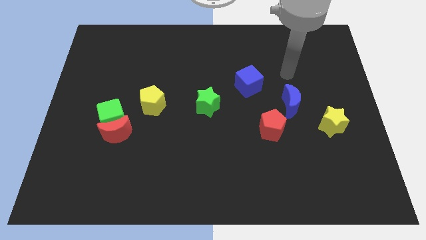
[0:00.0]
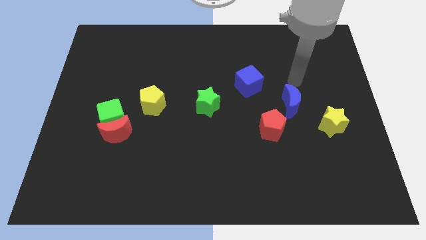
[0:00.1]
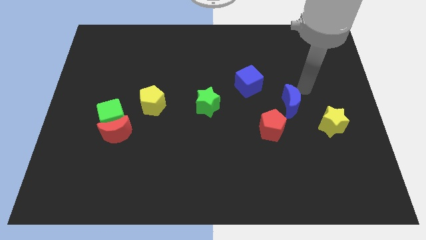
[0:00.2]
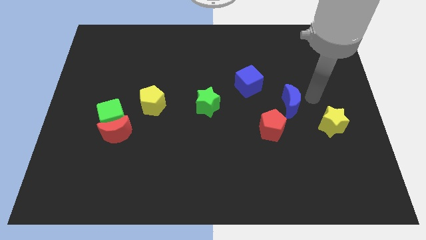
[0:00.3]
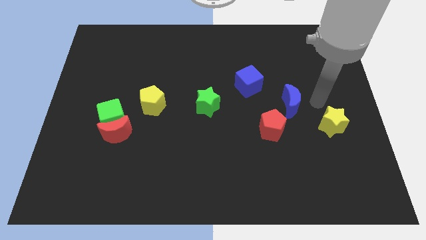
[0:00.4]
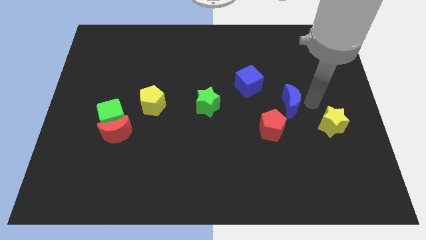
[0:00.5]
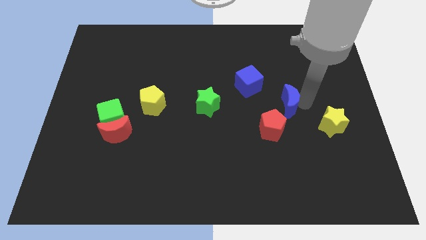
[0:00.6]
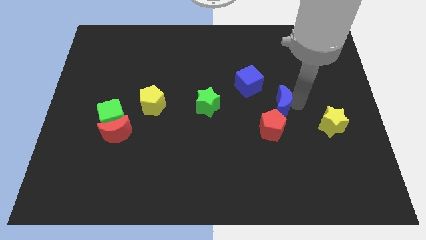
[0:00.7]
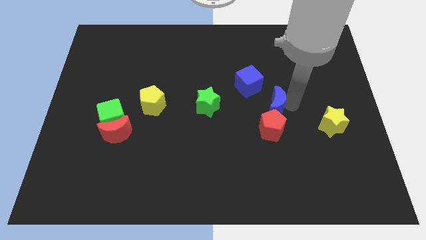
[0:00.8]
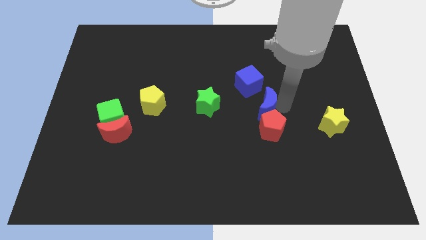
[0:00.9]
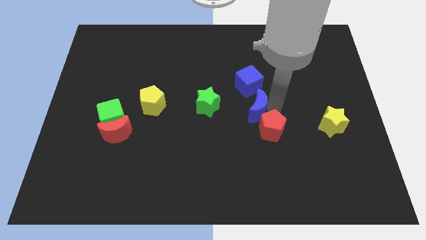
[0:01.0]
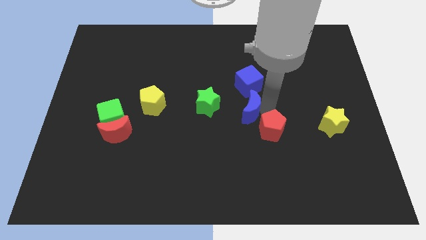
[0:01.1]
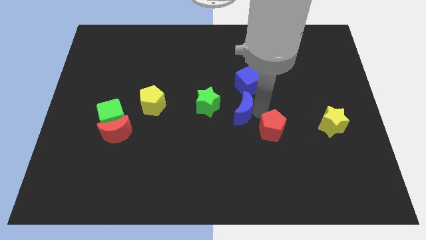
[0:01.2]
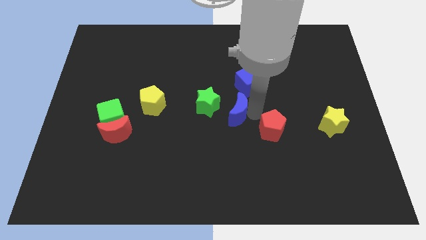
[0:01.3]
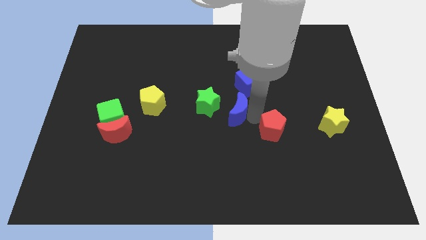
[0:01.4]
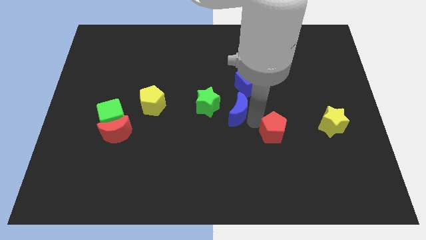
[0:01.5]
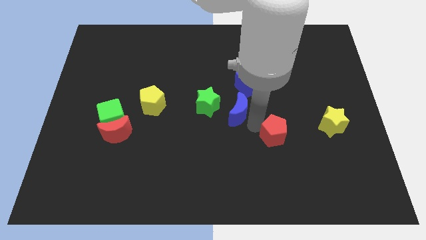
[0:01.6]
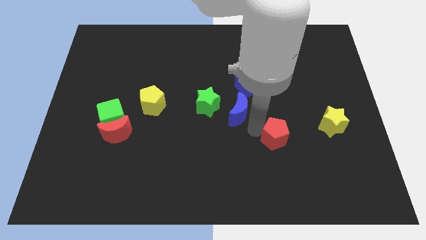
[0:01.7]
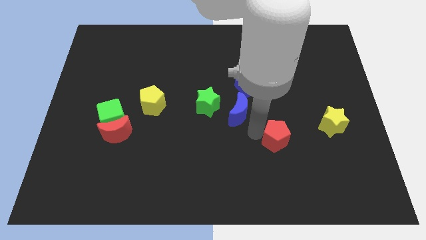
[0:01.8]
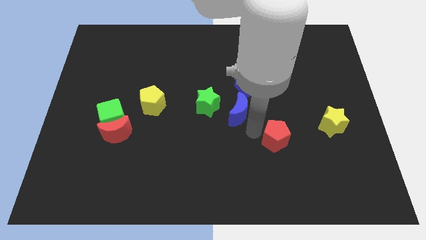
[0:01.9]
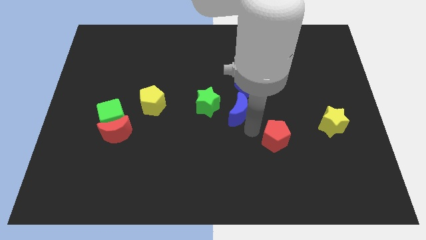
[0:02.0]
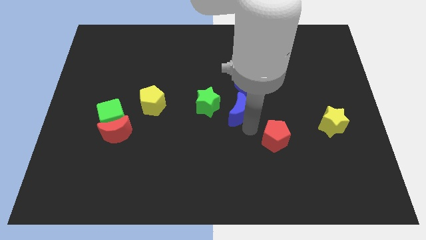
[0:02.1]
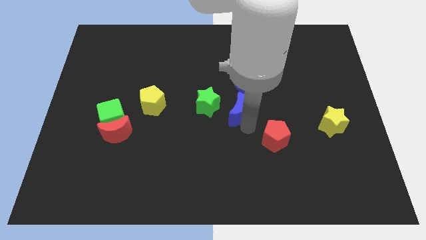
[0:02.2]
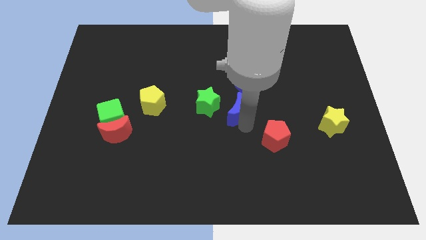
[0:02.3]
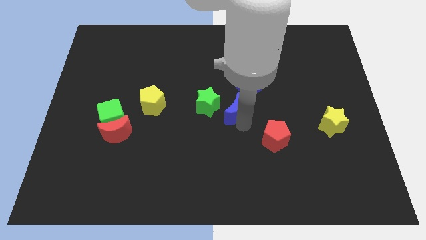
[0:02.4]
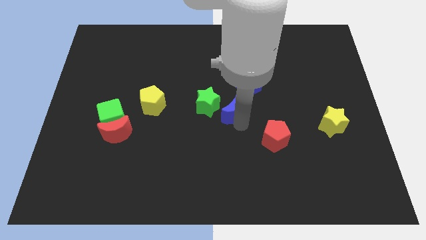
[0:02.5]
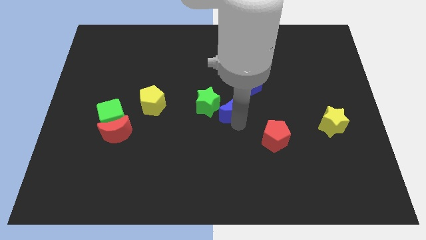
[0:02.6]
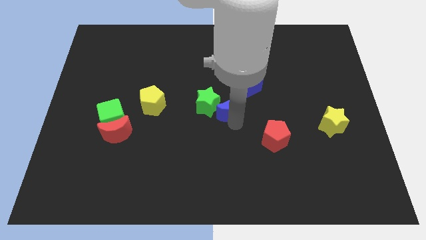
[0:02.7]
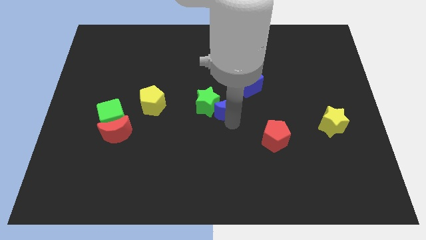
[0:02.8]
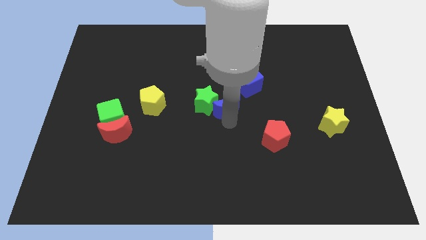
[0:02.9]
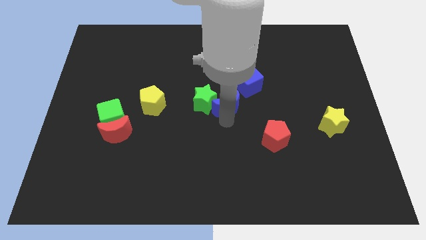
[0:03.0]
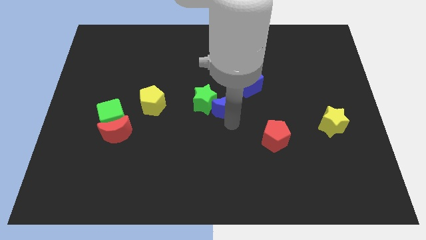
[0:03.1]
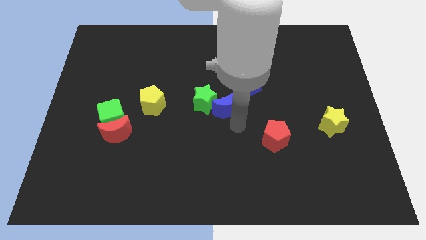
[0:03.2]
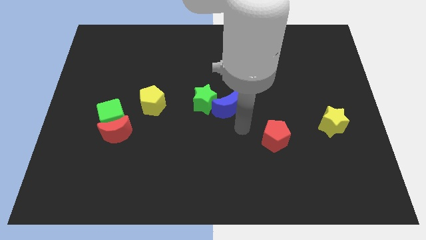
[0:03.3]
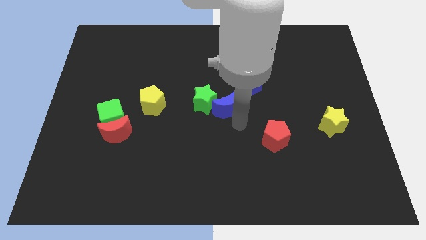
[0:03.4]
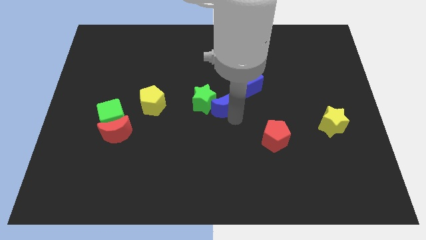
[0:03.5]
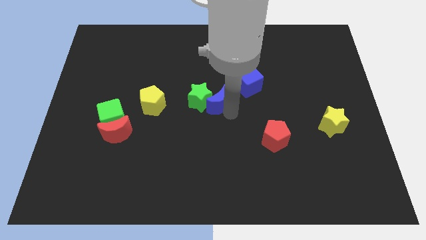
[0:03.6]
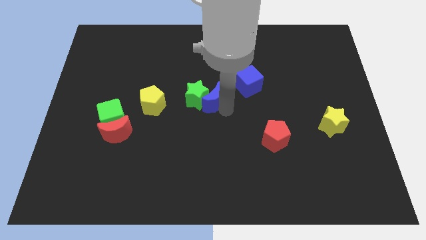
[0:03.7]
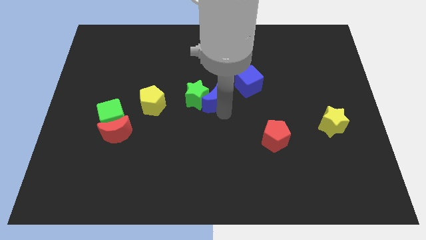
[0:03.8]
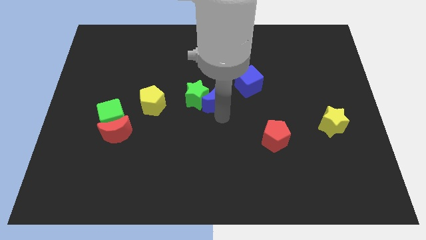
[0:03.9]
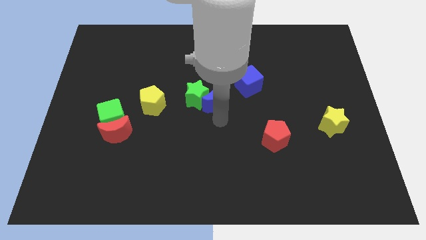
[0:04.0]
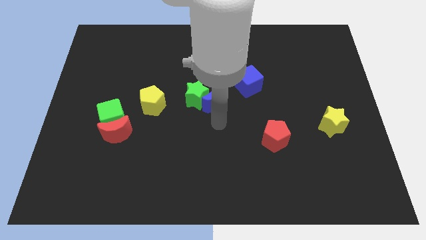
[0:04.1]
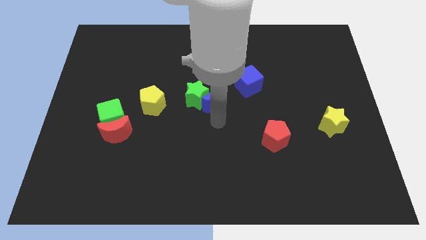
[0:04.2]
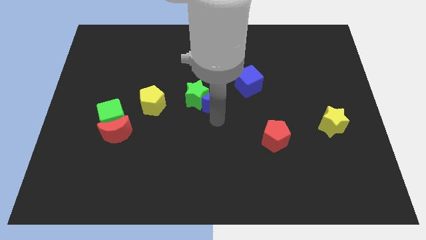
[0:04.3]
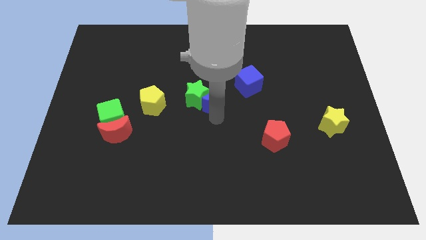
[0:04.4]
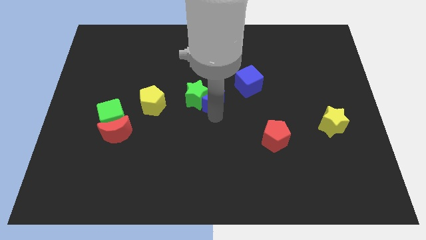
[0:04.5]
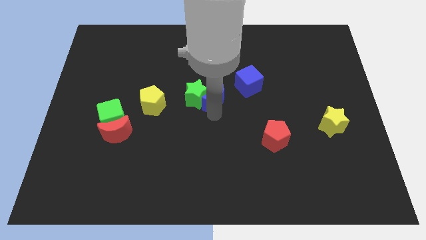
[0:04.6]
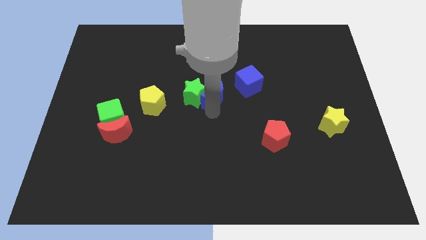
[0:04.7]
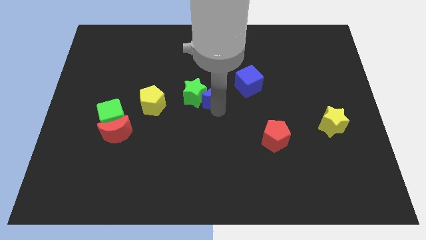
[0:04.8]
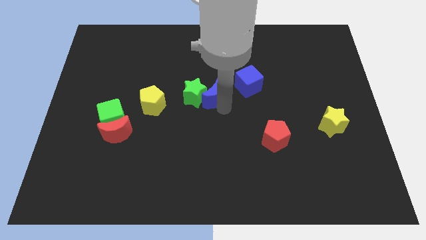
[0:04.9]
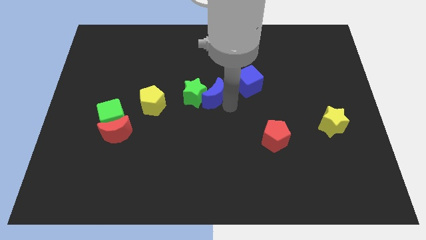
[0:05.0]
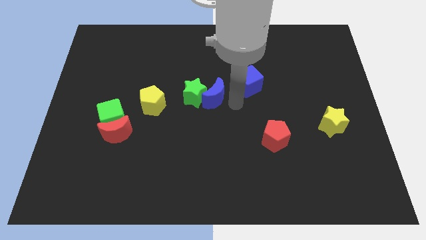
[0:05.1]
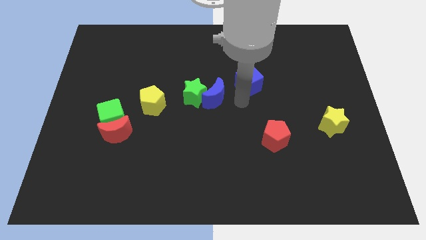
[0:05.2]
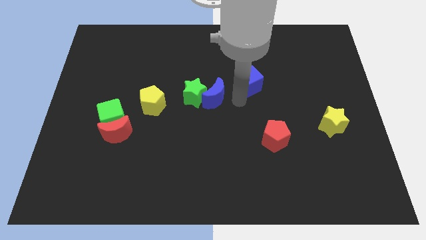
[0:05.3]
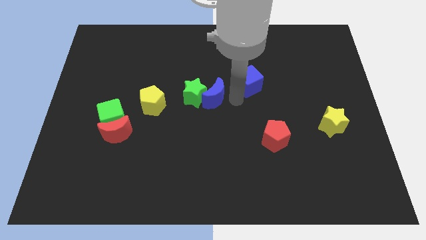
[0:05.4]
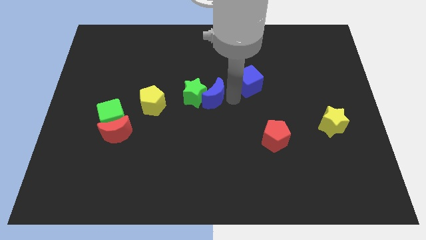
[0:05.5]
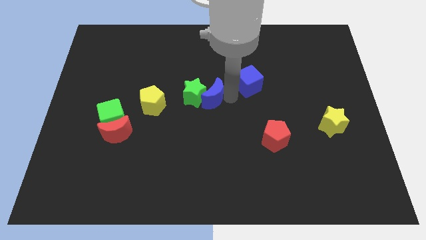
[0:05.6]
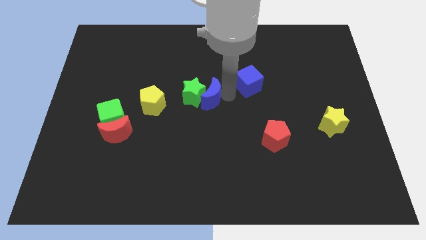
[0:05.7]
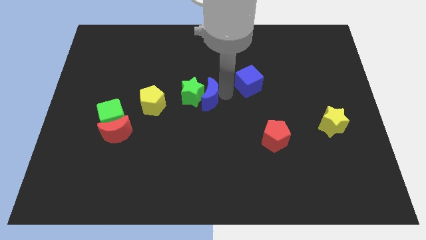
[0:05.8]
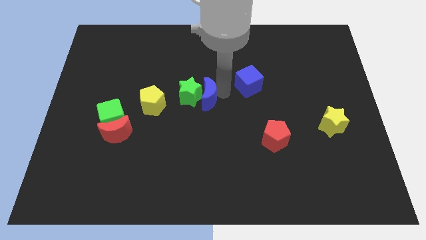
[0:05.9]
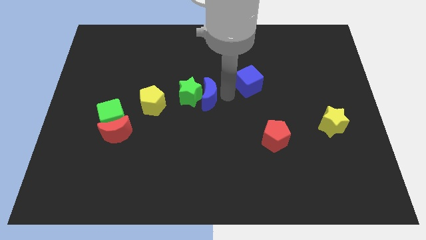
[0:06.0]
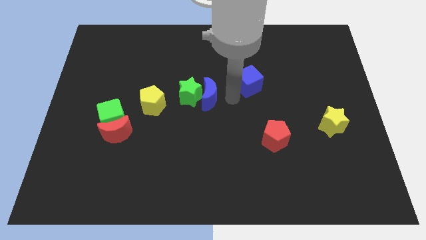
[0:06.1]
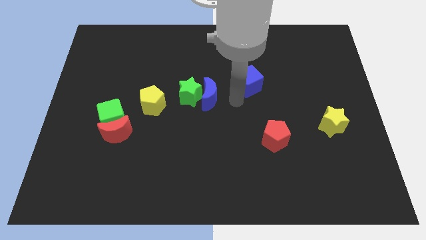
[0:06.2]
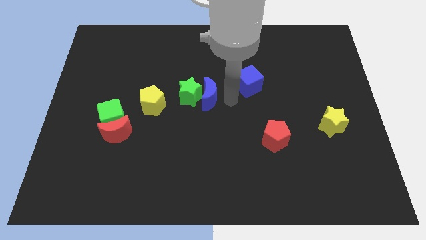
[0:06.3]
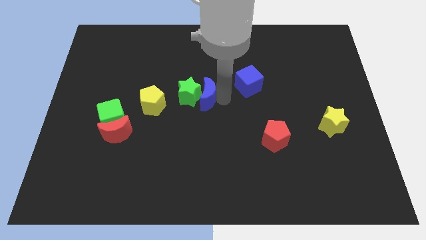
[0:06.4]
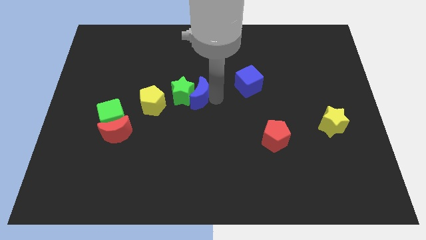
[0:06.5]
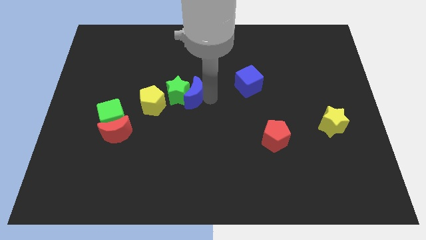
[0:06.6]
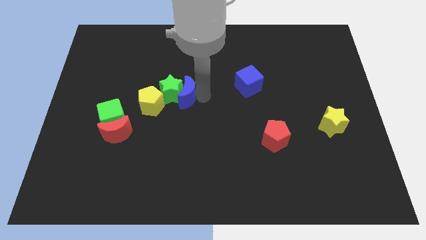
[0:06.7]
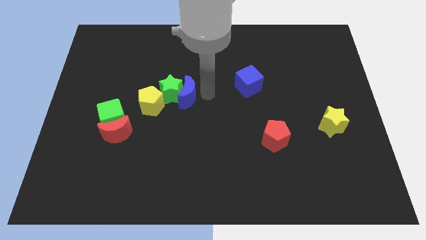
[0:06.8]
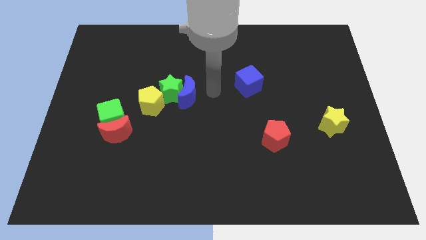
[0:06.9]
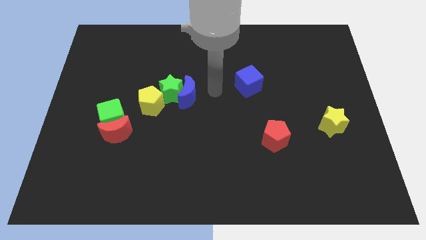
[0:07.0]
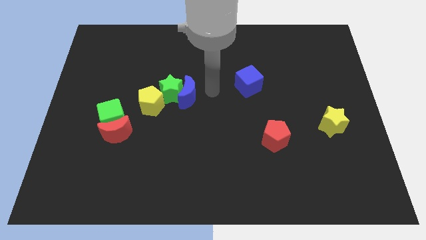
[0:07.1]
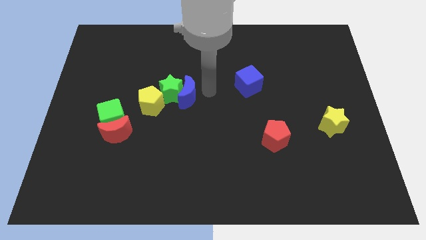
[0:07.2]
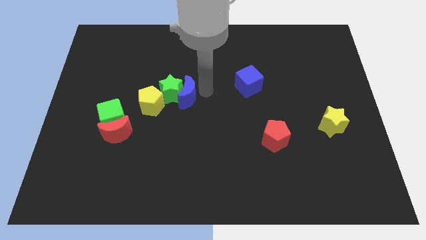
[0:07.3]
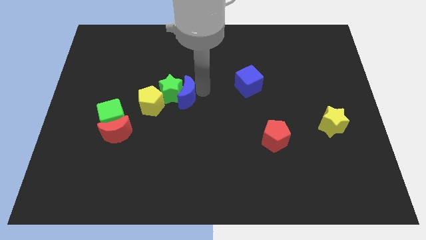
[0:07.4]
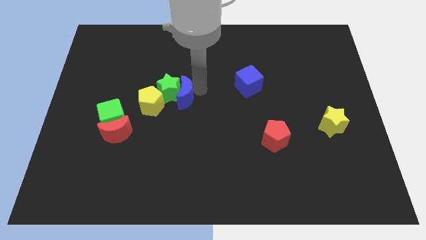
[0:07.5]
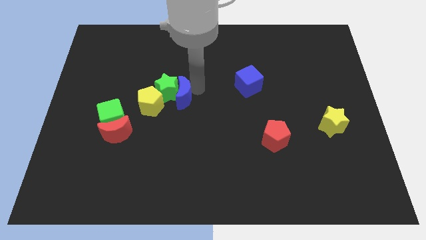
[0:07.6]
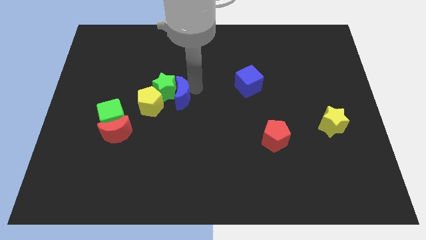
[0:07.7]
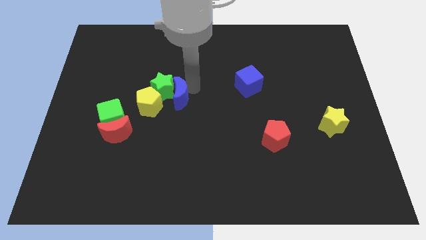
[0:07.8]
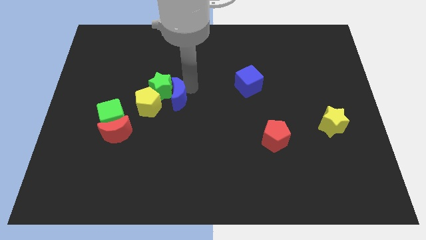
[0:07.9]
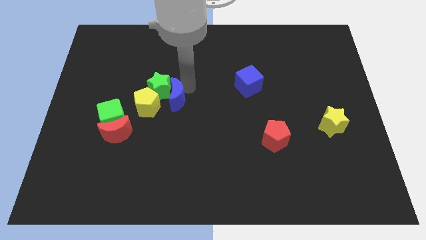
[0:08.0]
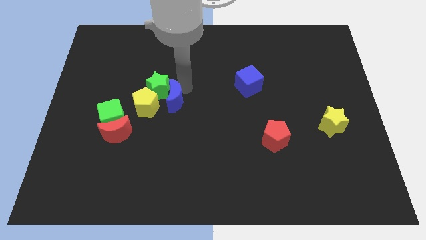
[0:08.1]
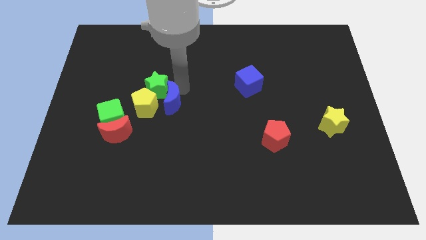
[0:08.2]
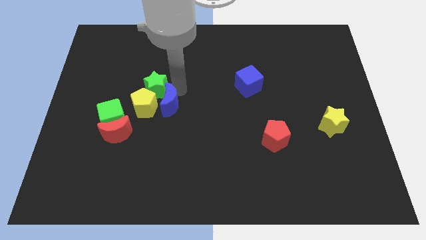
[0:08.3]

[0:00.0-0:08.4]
push the blue moon towards the yellow pentagon
